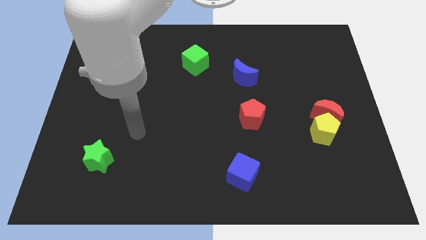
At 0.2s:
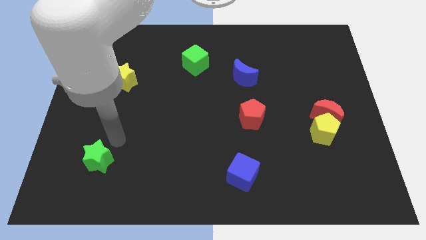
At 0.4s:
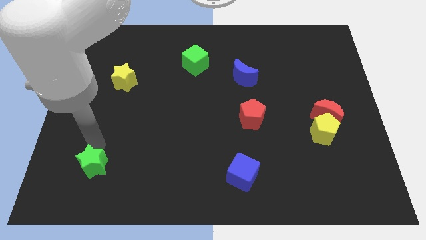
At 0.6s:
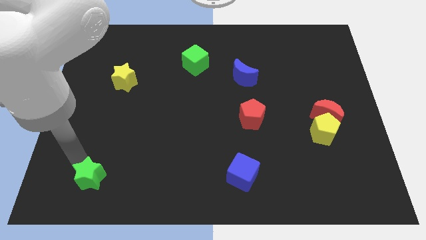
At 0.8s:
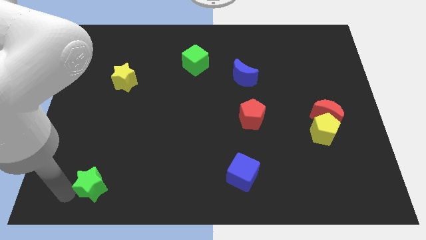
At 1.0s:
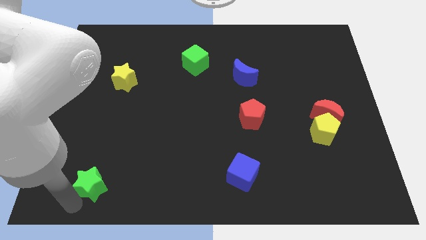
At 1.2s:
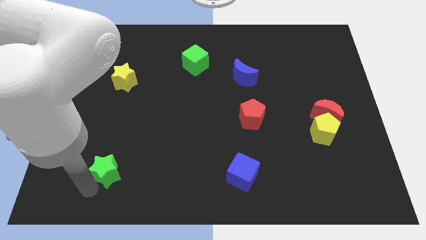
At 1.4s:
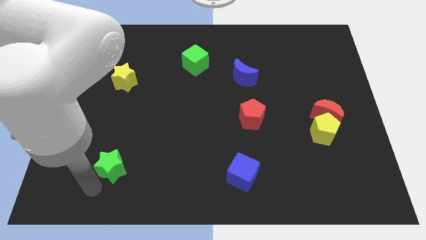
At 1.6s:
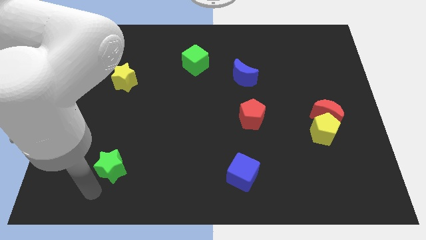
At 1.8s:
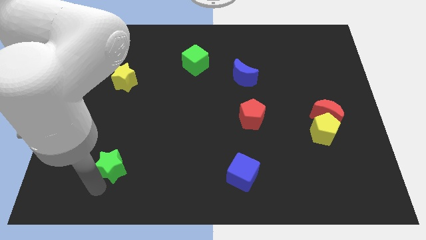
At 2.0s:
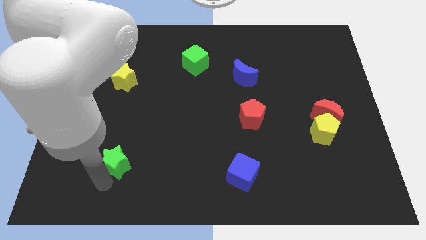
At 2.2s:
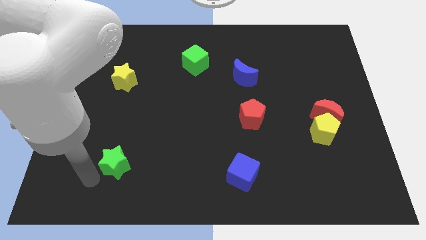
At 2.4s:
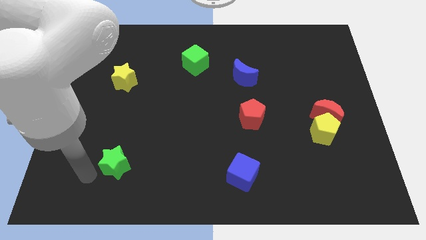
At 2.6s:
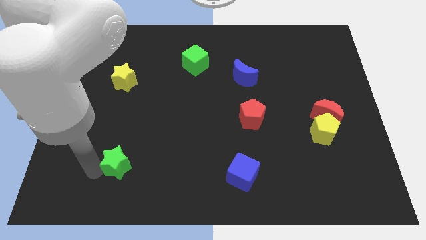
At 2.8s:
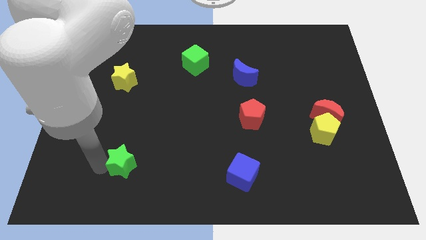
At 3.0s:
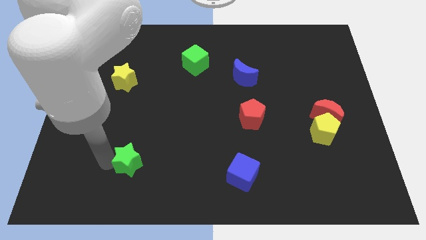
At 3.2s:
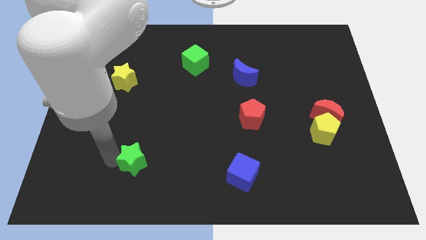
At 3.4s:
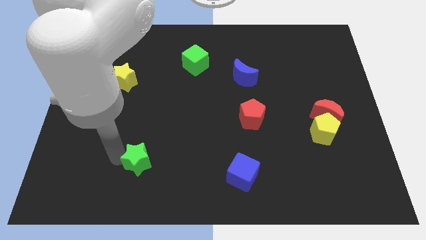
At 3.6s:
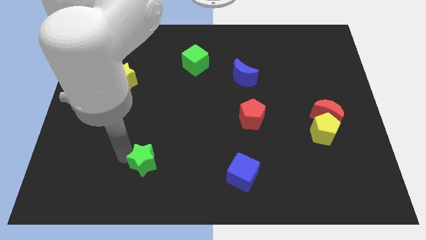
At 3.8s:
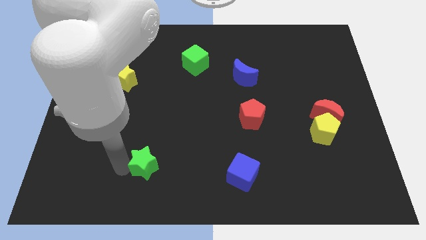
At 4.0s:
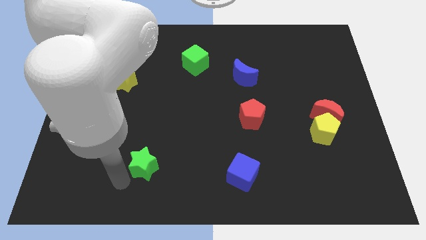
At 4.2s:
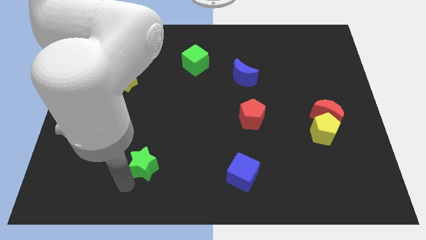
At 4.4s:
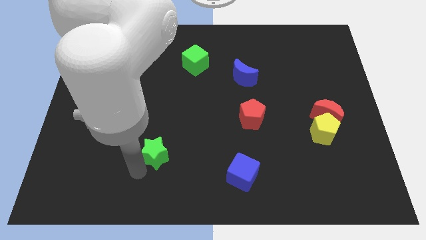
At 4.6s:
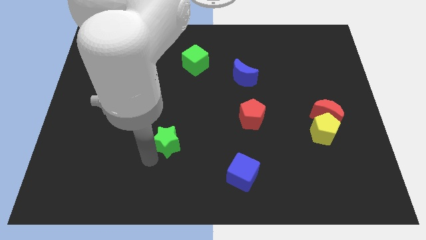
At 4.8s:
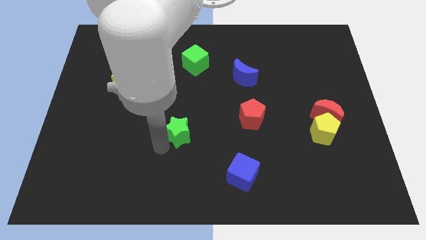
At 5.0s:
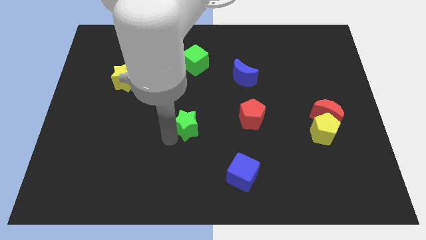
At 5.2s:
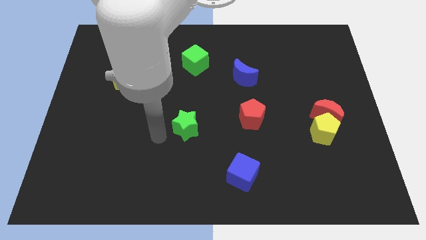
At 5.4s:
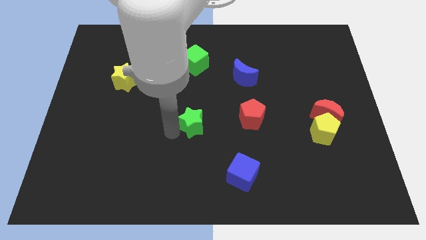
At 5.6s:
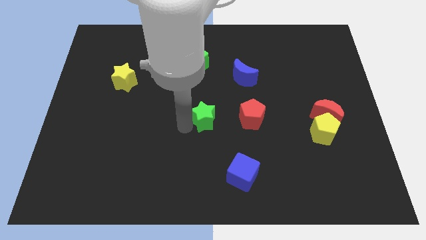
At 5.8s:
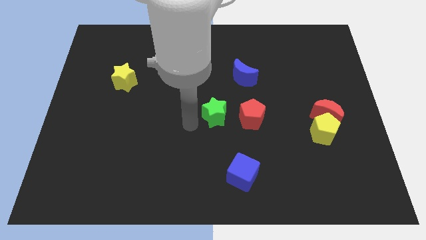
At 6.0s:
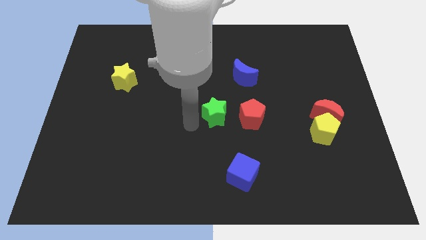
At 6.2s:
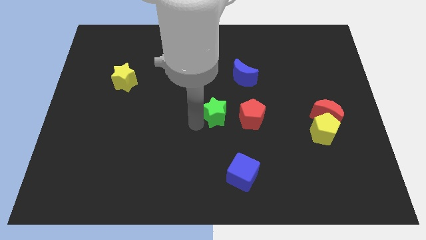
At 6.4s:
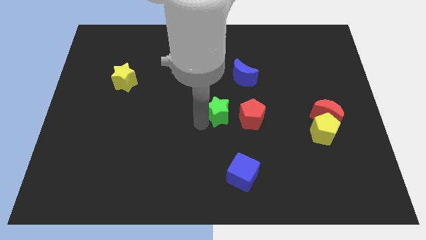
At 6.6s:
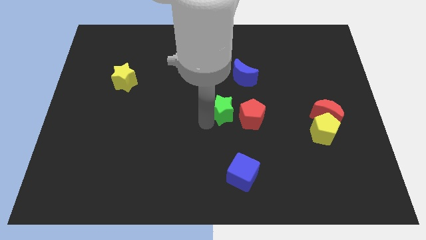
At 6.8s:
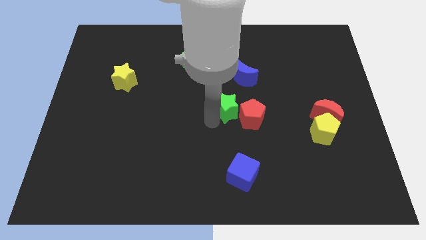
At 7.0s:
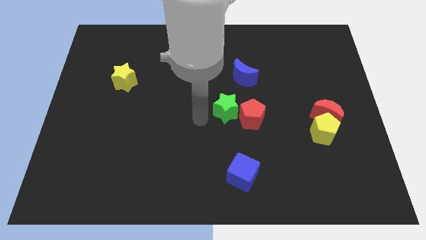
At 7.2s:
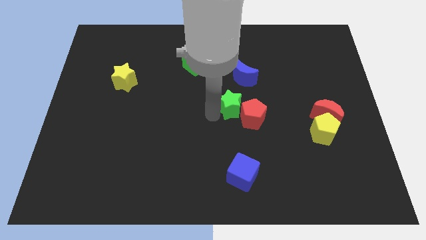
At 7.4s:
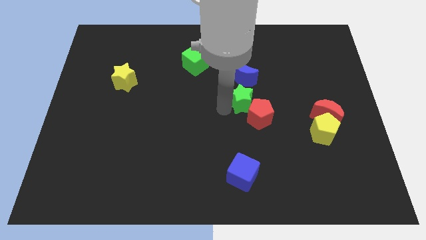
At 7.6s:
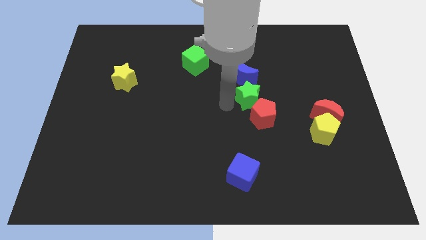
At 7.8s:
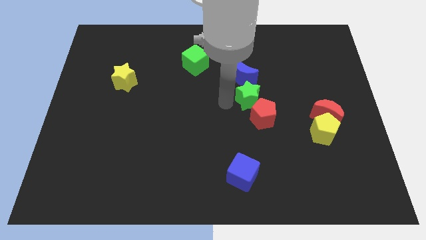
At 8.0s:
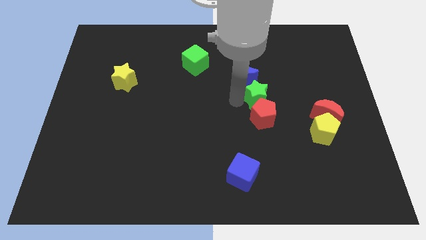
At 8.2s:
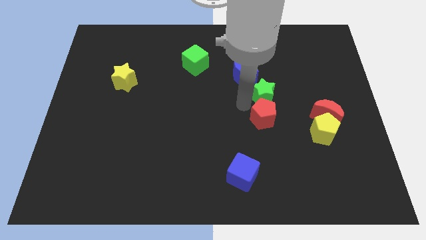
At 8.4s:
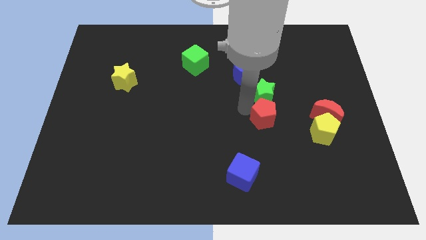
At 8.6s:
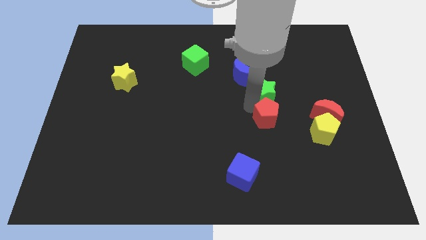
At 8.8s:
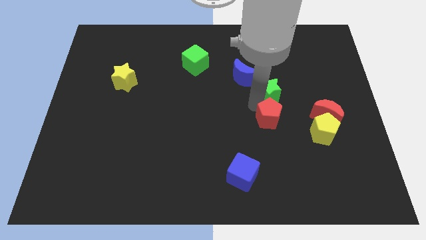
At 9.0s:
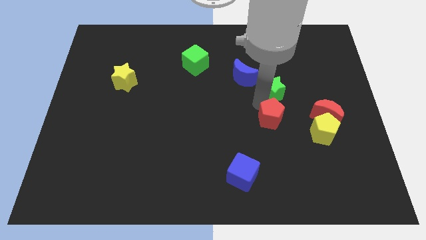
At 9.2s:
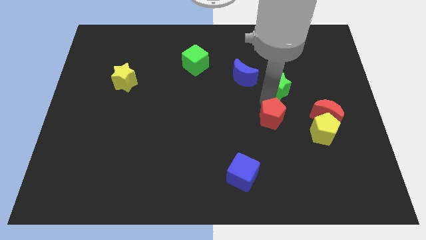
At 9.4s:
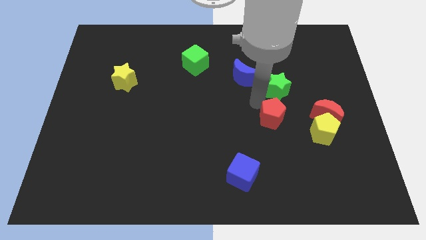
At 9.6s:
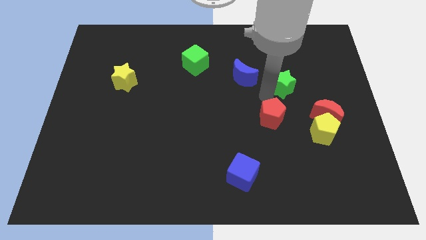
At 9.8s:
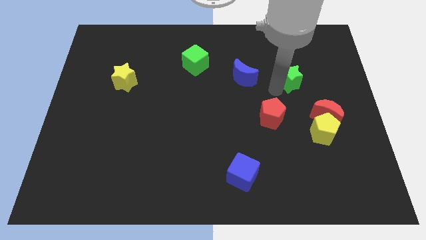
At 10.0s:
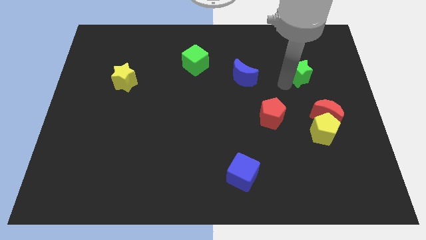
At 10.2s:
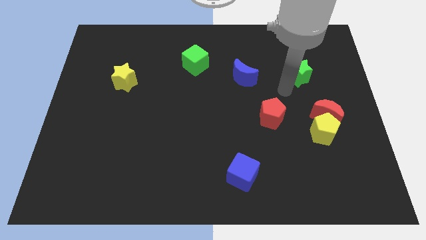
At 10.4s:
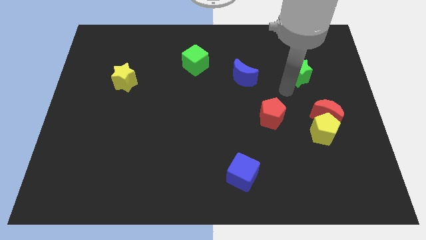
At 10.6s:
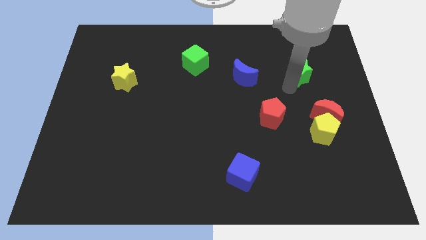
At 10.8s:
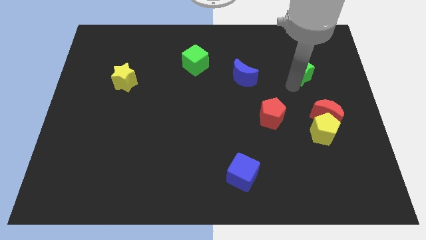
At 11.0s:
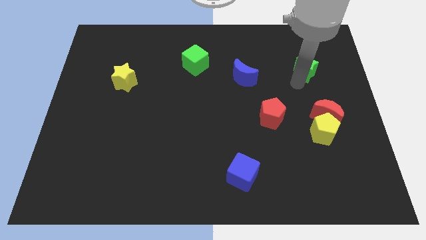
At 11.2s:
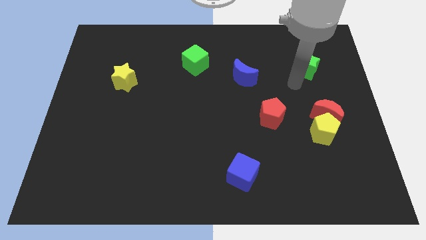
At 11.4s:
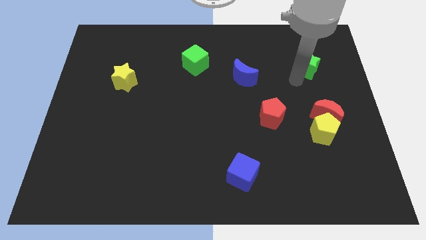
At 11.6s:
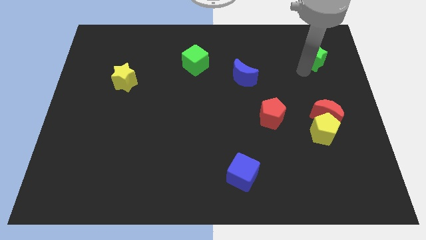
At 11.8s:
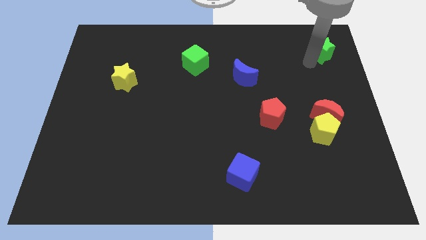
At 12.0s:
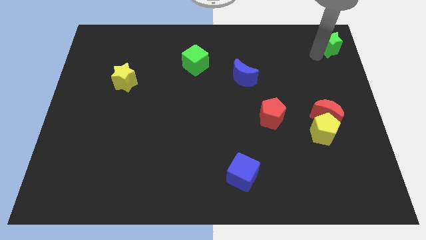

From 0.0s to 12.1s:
put the green star to the top right of the board
